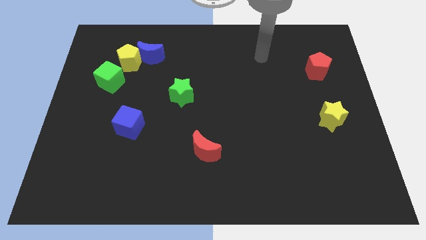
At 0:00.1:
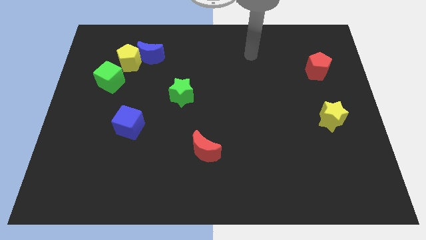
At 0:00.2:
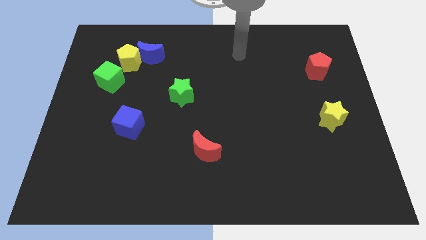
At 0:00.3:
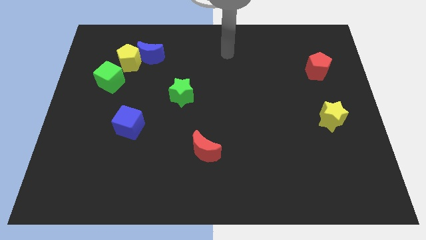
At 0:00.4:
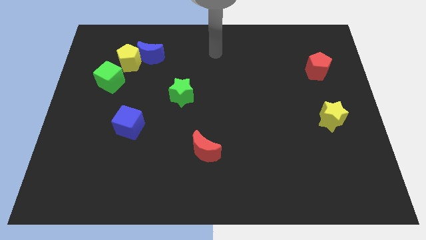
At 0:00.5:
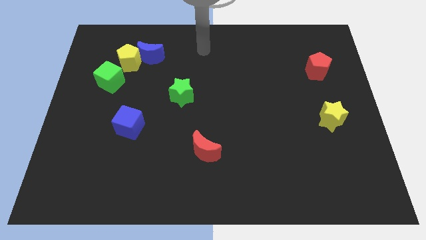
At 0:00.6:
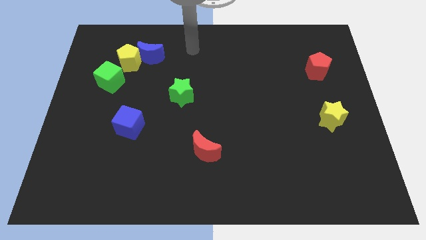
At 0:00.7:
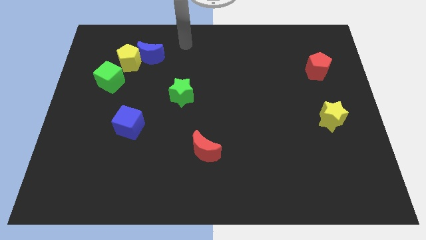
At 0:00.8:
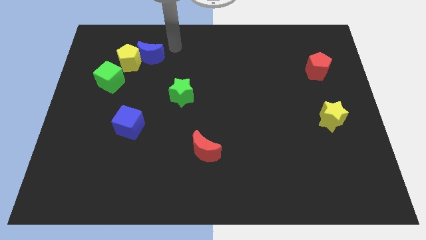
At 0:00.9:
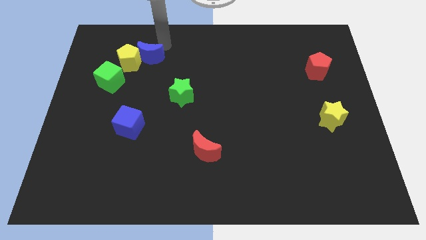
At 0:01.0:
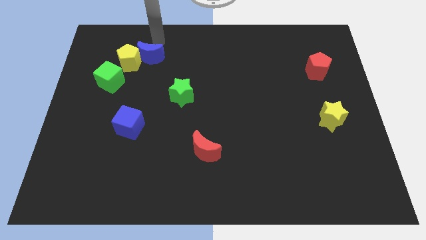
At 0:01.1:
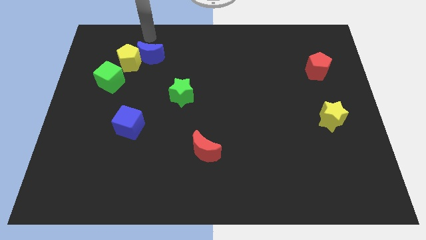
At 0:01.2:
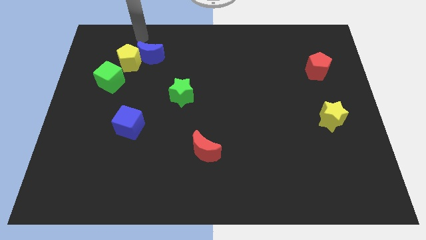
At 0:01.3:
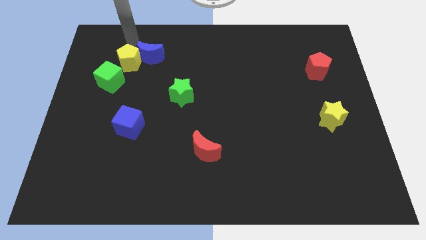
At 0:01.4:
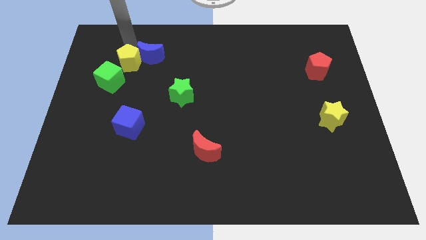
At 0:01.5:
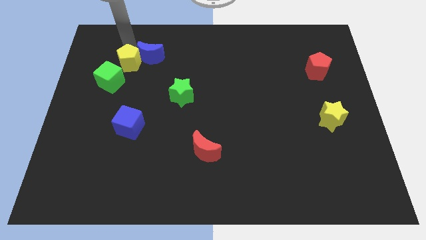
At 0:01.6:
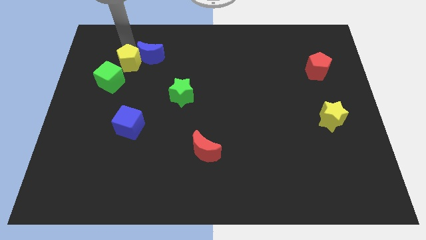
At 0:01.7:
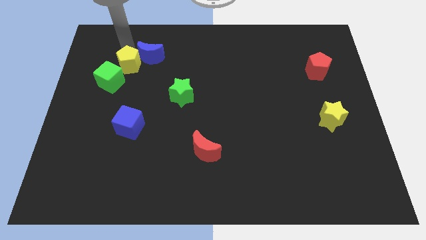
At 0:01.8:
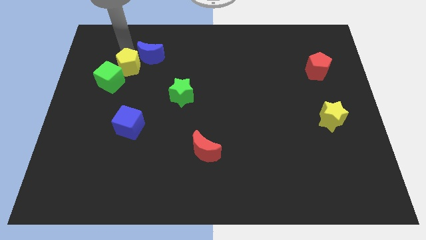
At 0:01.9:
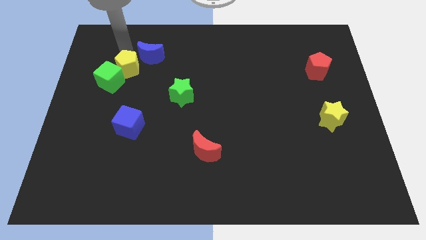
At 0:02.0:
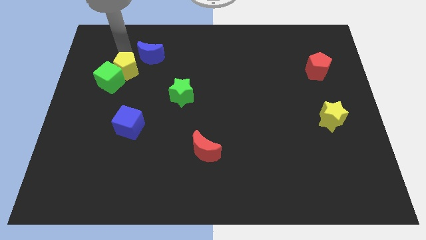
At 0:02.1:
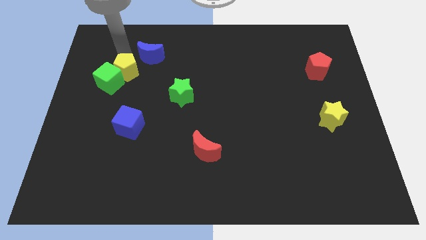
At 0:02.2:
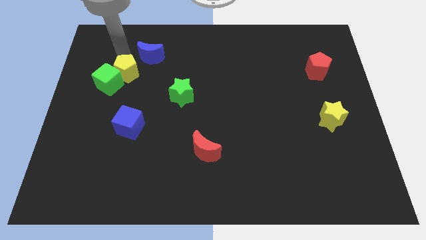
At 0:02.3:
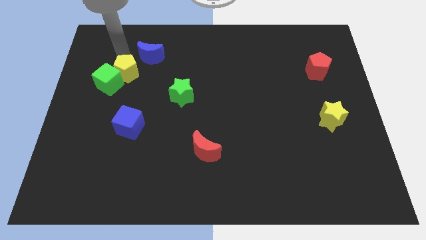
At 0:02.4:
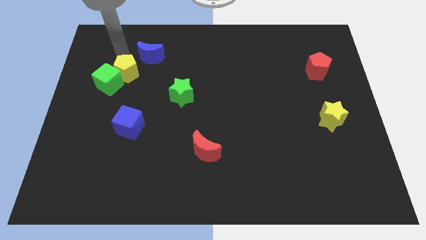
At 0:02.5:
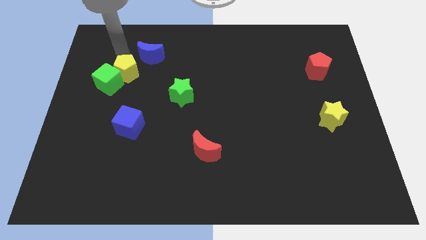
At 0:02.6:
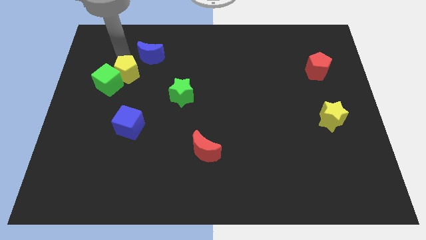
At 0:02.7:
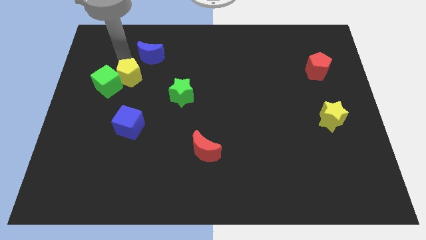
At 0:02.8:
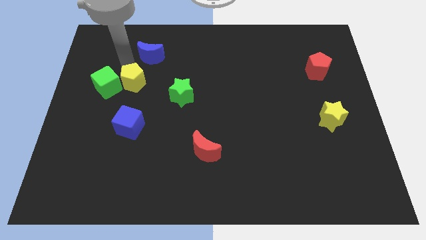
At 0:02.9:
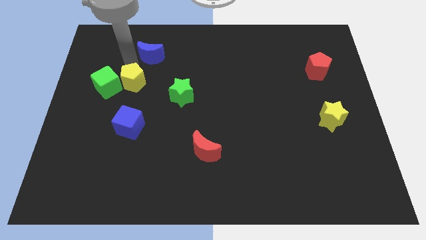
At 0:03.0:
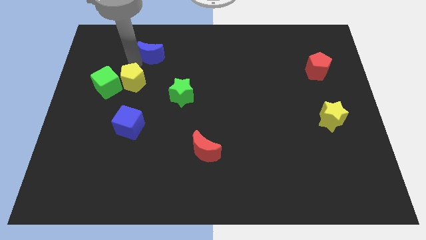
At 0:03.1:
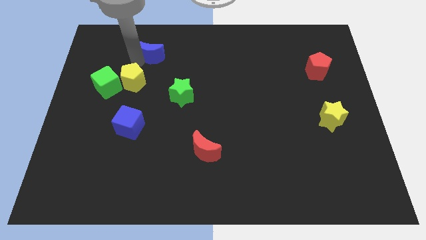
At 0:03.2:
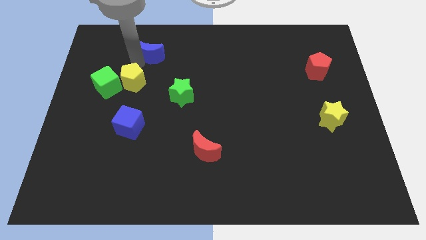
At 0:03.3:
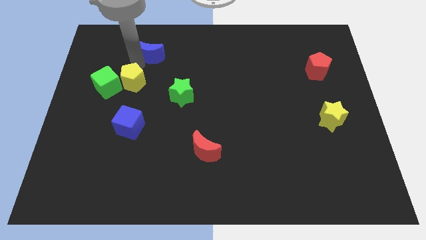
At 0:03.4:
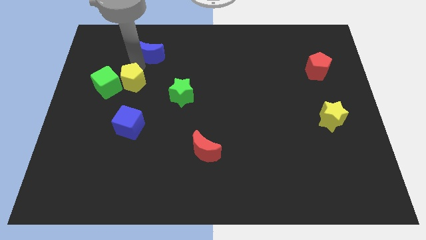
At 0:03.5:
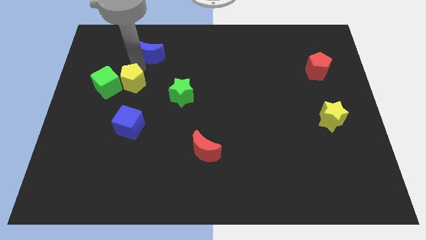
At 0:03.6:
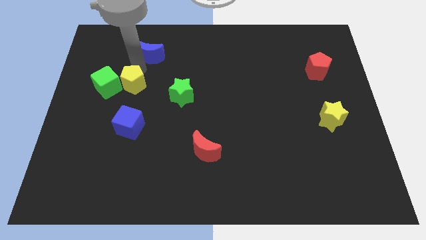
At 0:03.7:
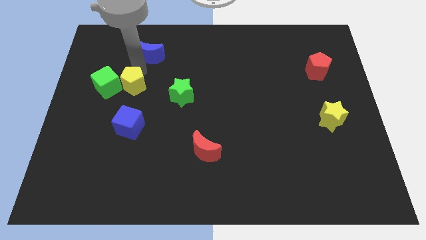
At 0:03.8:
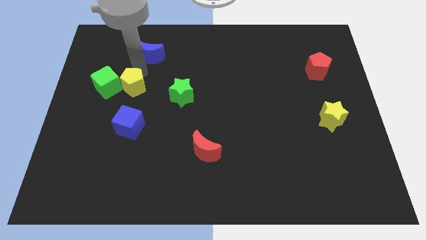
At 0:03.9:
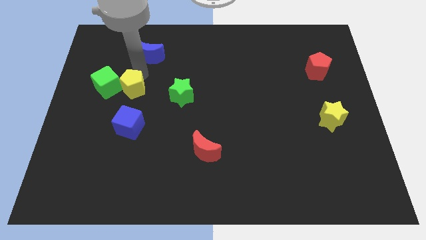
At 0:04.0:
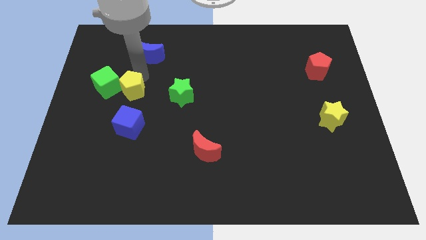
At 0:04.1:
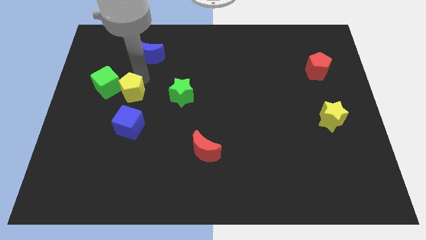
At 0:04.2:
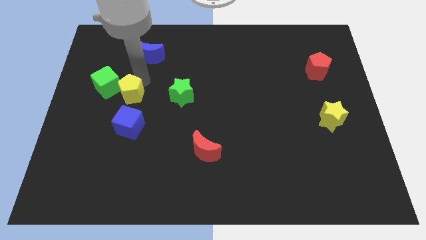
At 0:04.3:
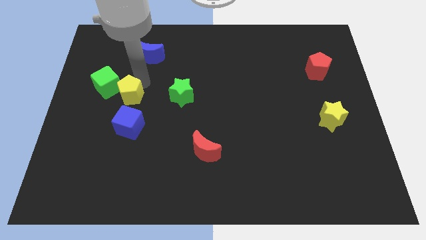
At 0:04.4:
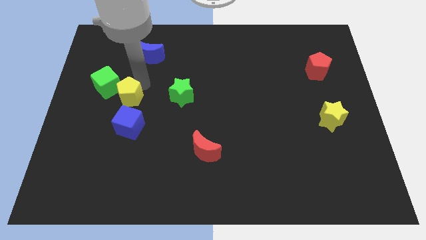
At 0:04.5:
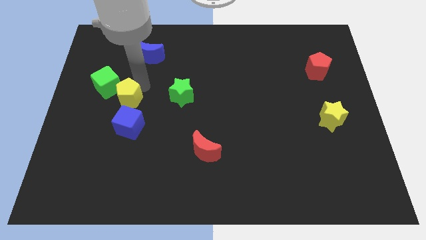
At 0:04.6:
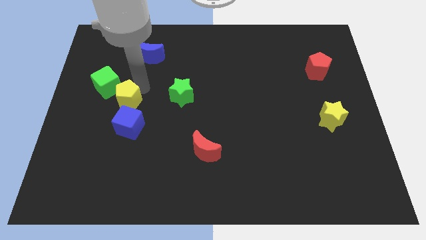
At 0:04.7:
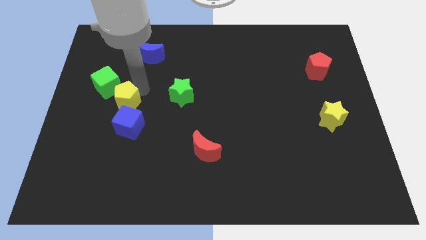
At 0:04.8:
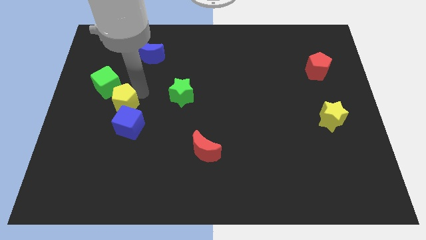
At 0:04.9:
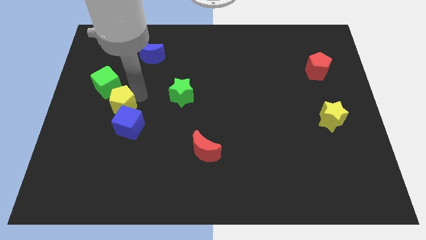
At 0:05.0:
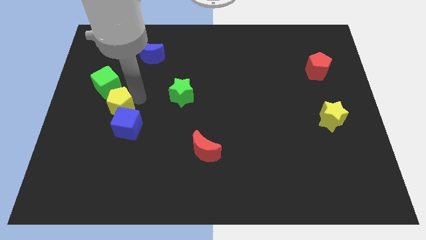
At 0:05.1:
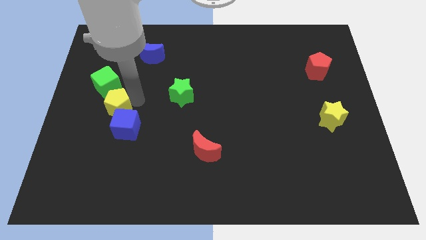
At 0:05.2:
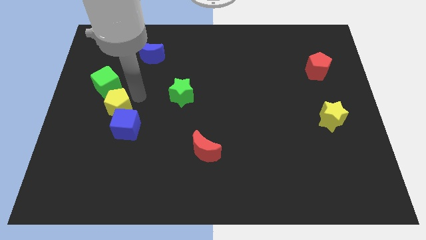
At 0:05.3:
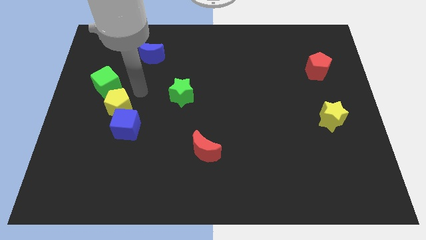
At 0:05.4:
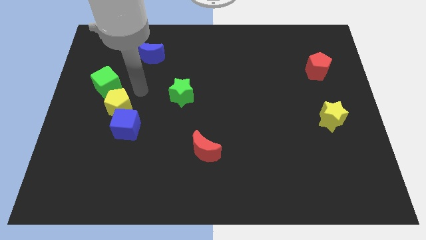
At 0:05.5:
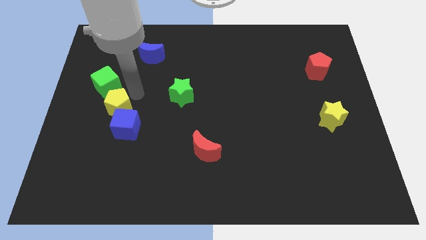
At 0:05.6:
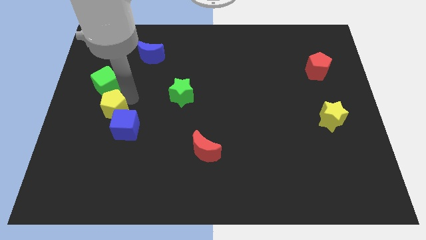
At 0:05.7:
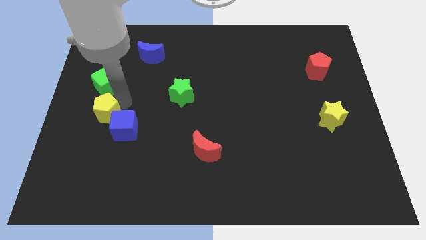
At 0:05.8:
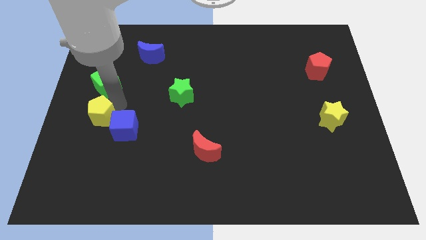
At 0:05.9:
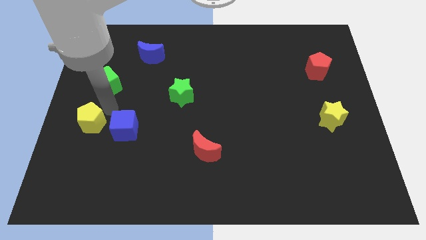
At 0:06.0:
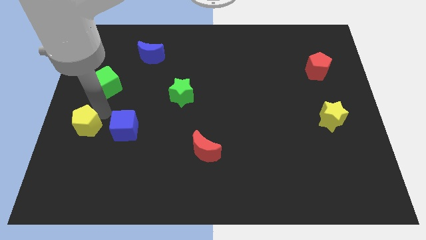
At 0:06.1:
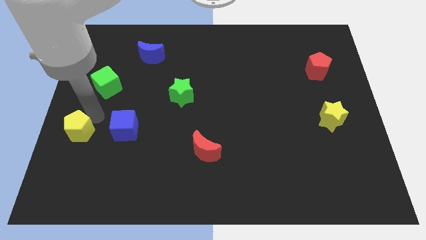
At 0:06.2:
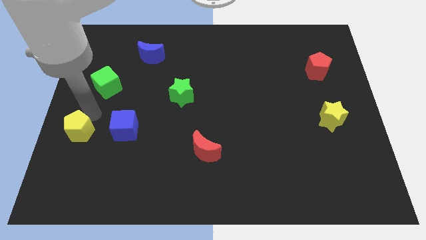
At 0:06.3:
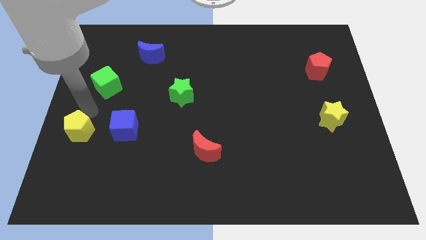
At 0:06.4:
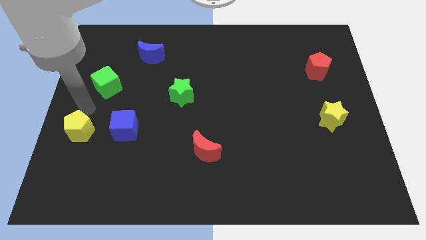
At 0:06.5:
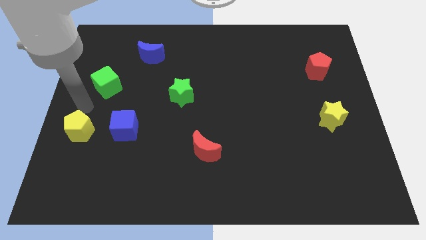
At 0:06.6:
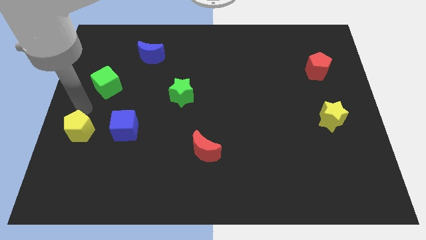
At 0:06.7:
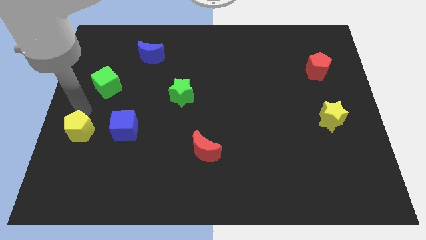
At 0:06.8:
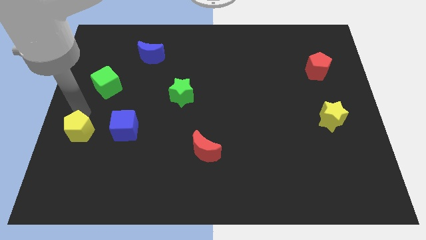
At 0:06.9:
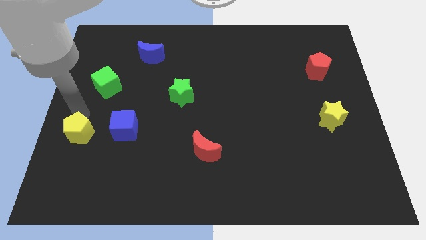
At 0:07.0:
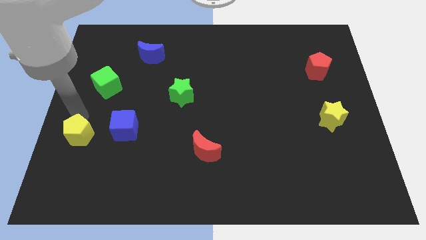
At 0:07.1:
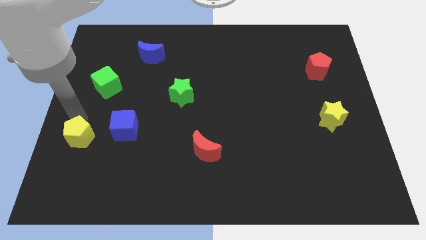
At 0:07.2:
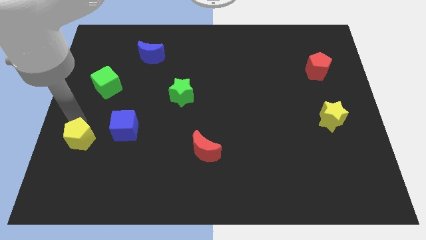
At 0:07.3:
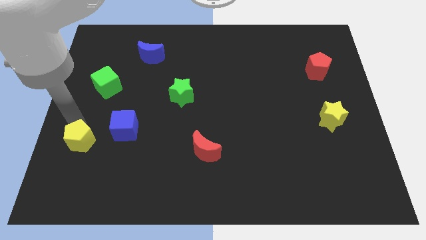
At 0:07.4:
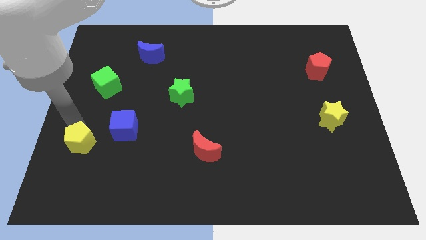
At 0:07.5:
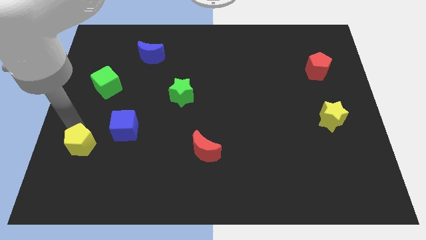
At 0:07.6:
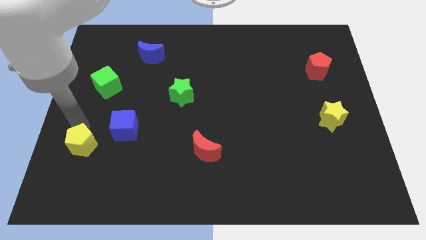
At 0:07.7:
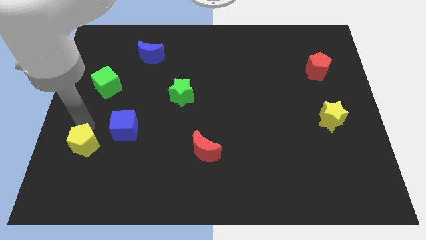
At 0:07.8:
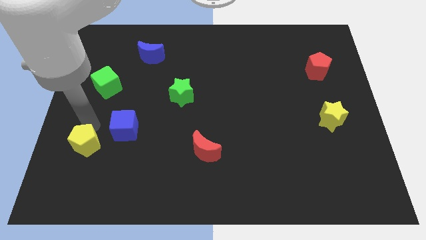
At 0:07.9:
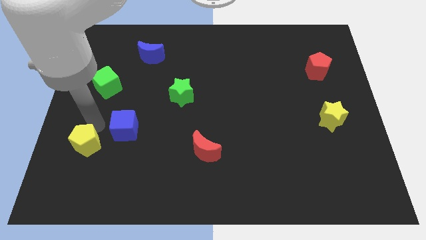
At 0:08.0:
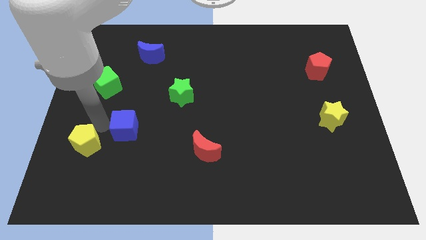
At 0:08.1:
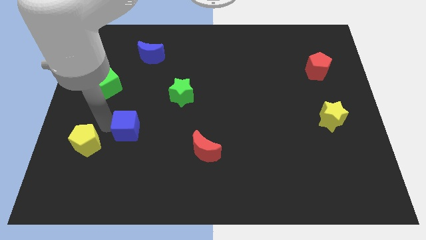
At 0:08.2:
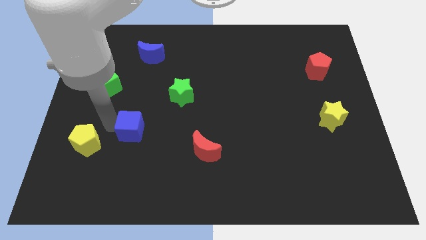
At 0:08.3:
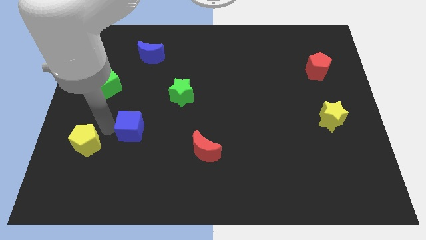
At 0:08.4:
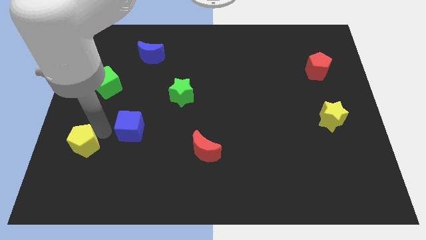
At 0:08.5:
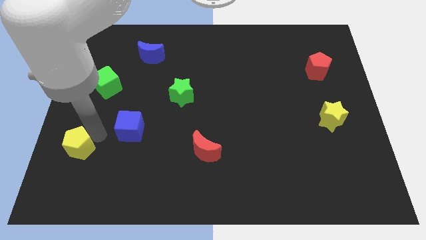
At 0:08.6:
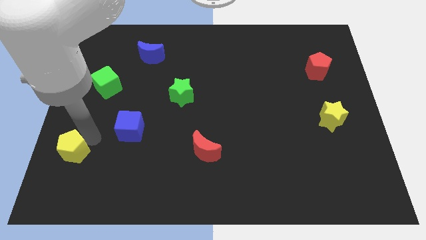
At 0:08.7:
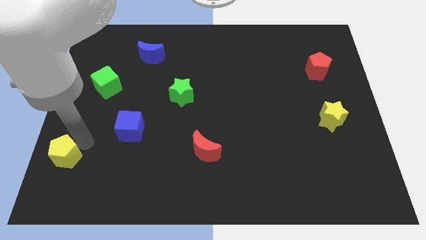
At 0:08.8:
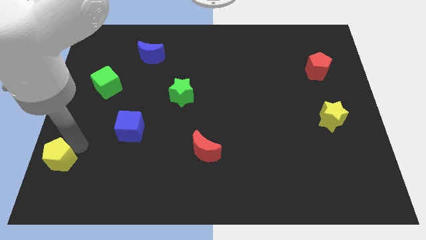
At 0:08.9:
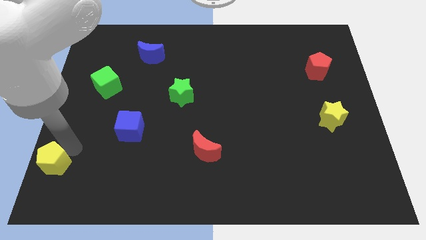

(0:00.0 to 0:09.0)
push the yellow pentagon to the bottom left
